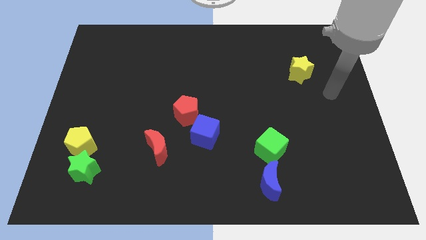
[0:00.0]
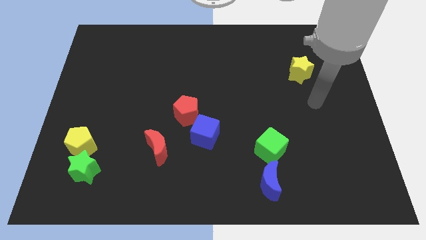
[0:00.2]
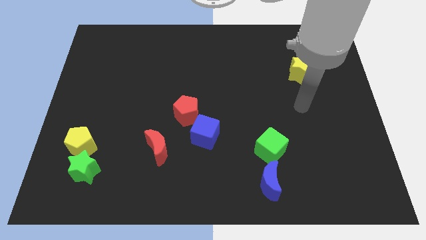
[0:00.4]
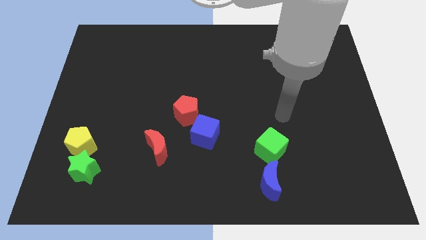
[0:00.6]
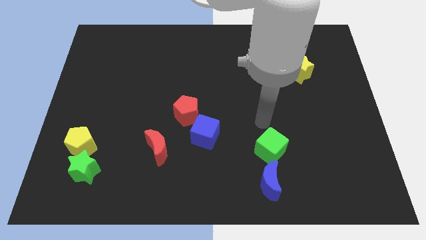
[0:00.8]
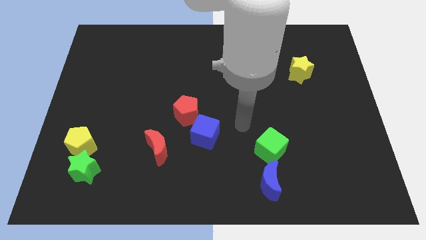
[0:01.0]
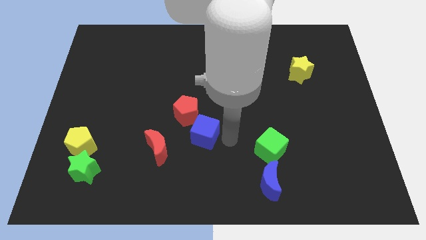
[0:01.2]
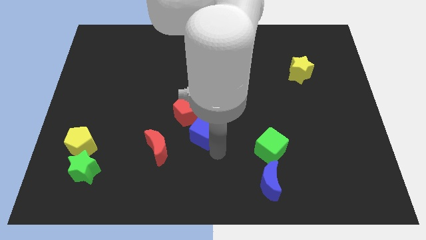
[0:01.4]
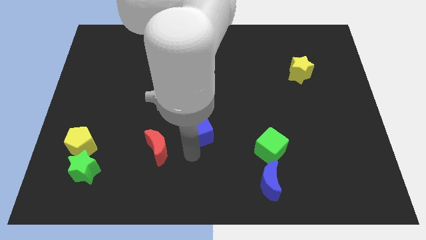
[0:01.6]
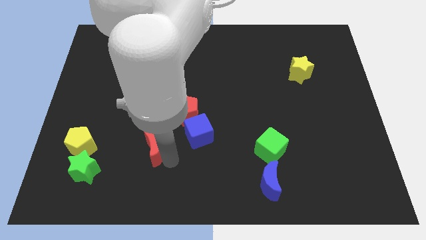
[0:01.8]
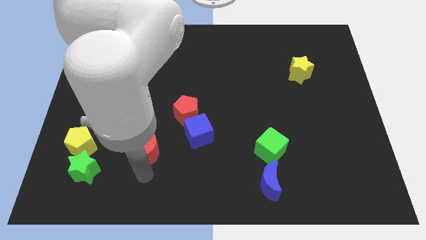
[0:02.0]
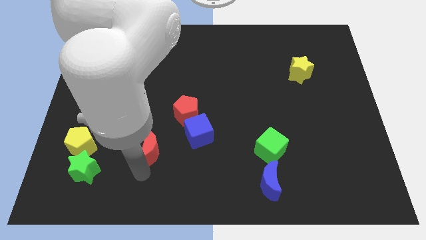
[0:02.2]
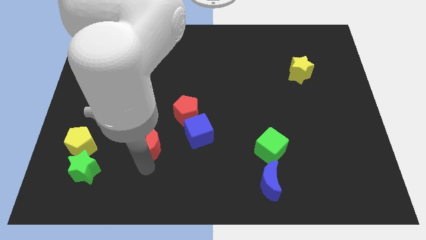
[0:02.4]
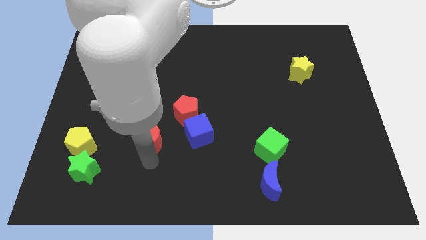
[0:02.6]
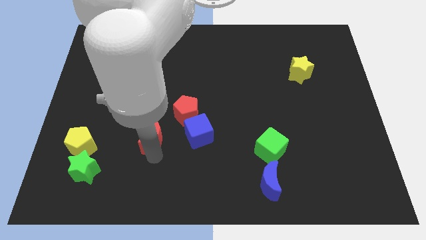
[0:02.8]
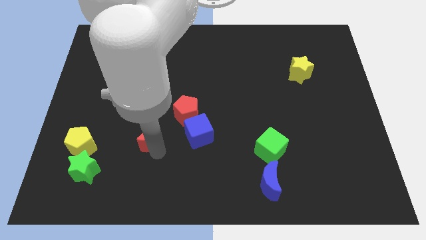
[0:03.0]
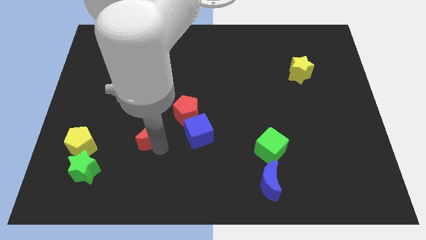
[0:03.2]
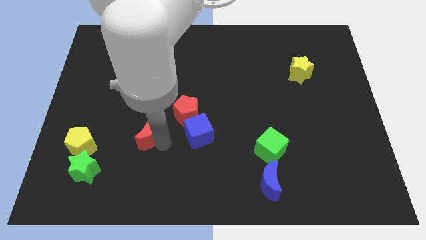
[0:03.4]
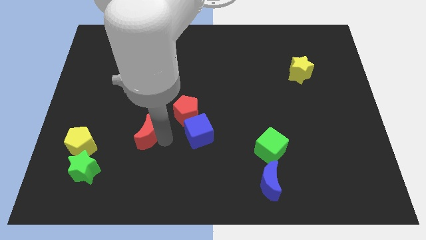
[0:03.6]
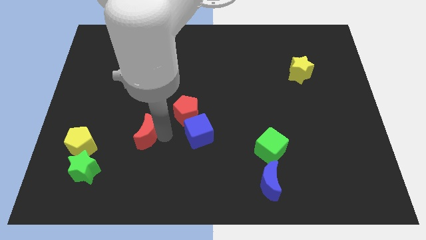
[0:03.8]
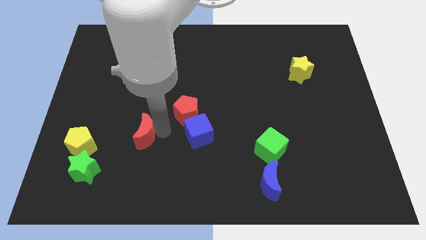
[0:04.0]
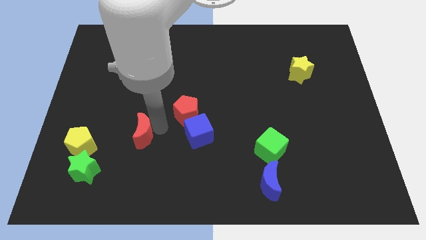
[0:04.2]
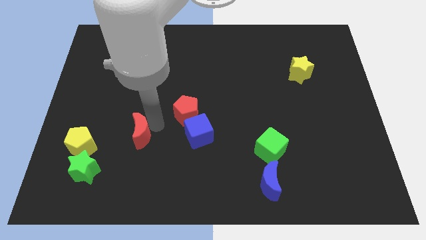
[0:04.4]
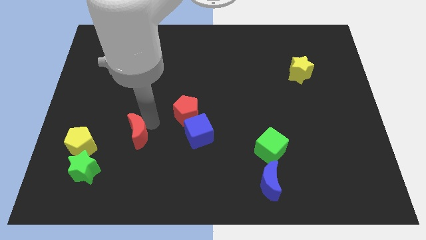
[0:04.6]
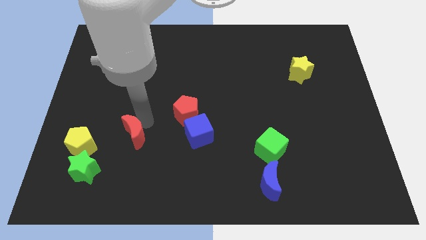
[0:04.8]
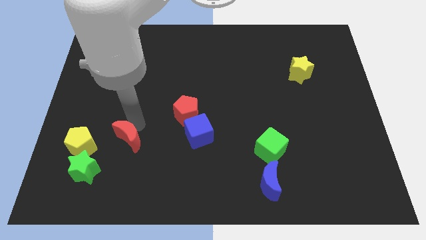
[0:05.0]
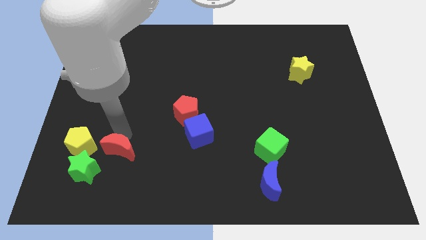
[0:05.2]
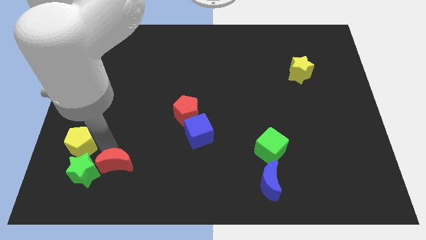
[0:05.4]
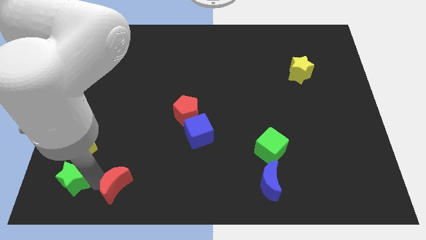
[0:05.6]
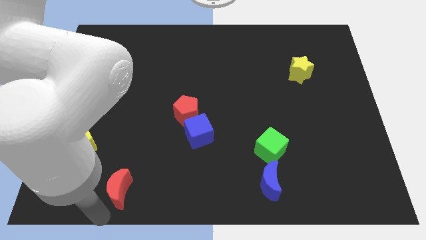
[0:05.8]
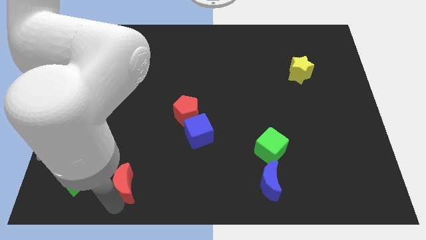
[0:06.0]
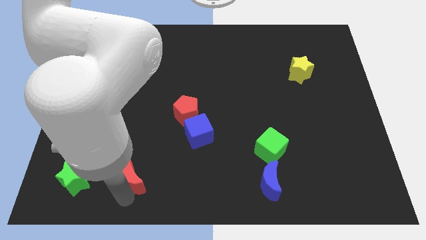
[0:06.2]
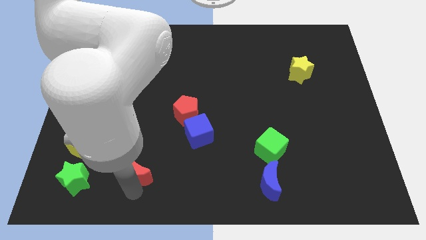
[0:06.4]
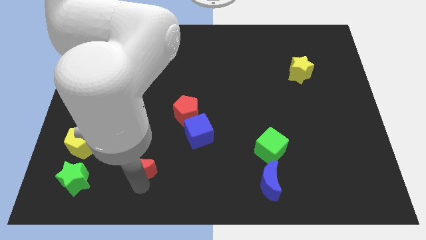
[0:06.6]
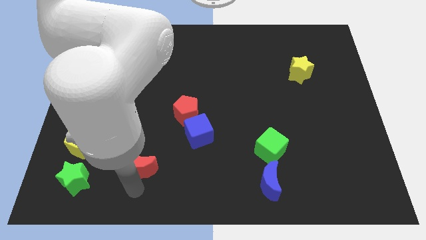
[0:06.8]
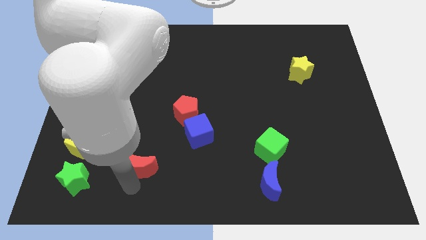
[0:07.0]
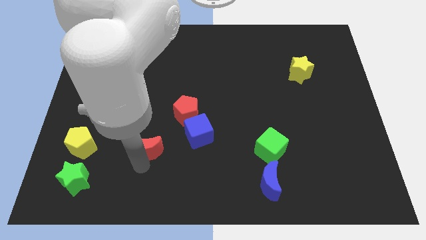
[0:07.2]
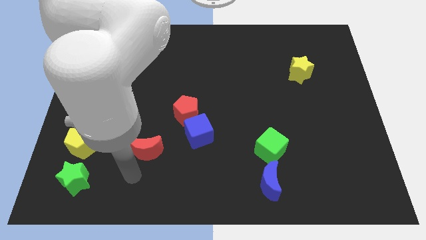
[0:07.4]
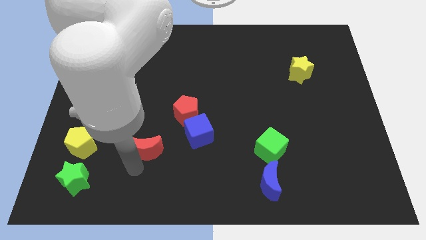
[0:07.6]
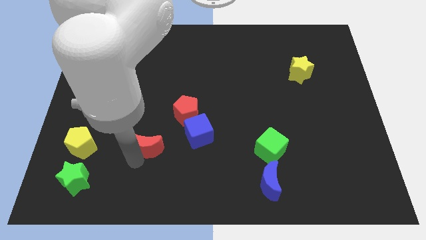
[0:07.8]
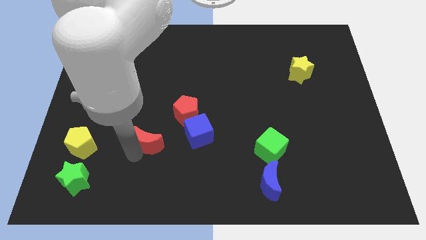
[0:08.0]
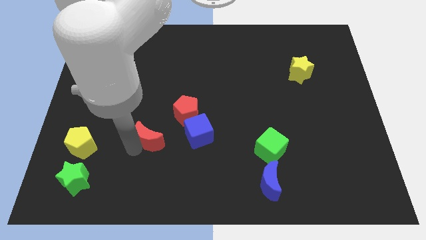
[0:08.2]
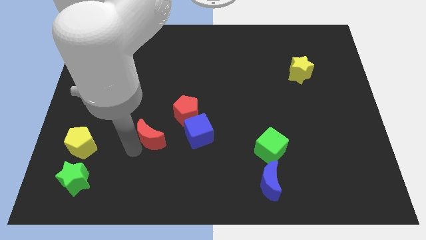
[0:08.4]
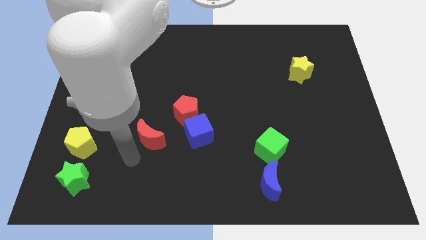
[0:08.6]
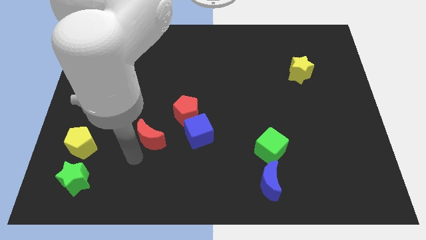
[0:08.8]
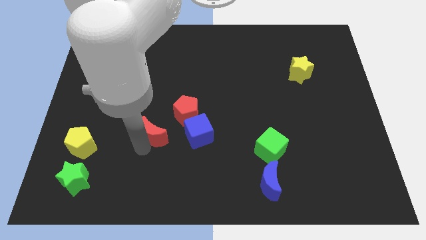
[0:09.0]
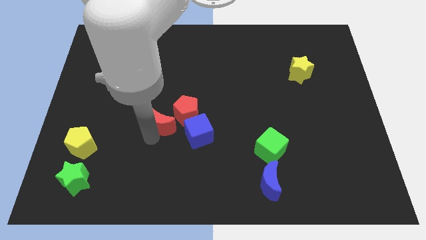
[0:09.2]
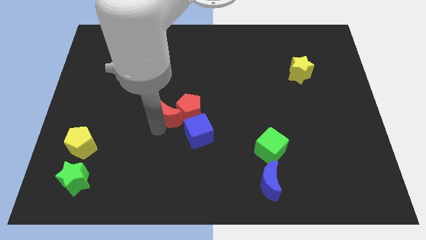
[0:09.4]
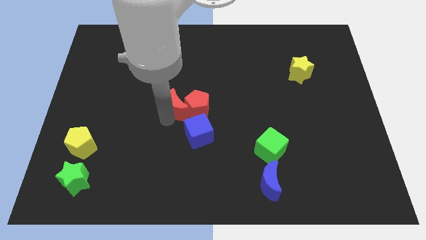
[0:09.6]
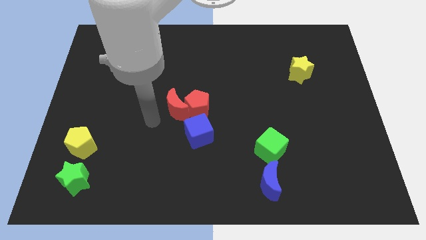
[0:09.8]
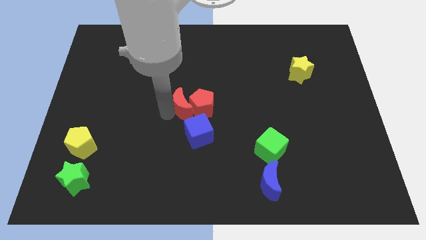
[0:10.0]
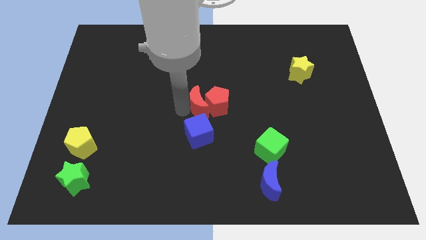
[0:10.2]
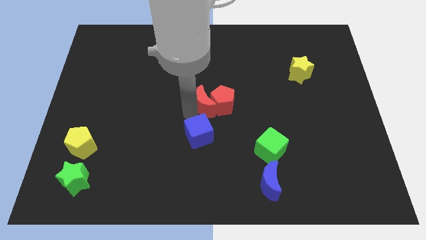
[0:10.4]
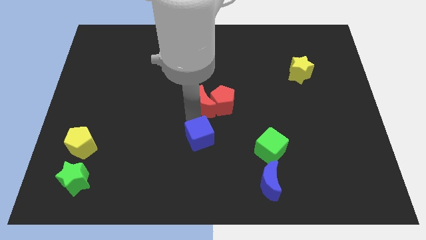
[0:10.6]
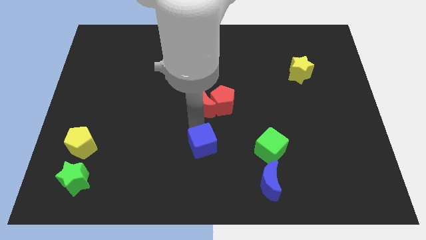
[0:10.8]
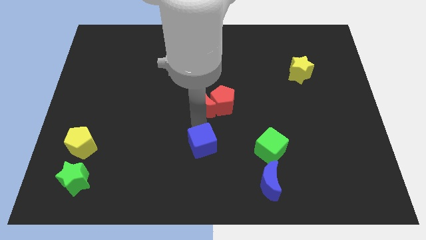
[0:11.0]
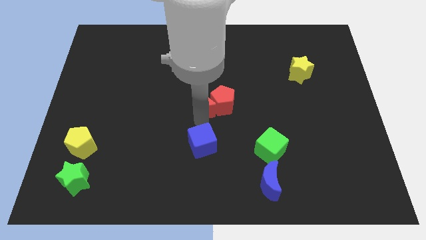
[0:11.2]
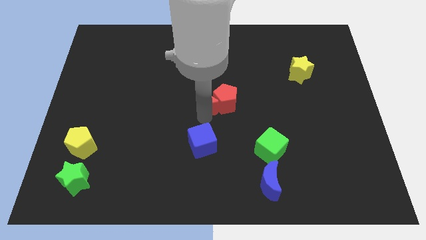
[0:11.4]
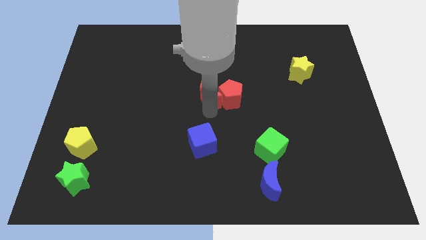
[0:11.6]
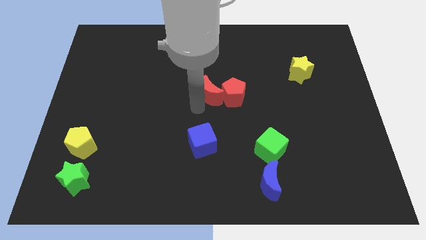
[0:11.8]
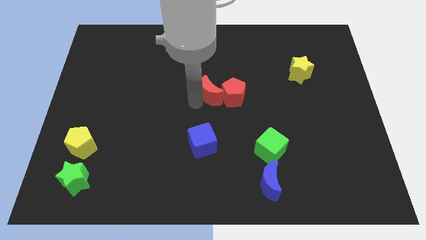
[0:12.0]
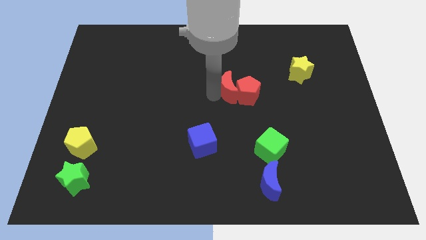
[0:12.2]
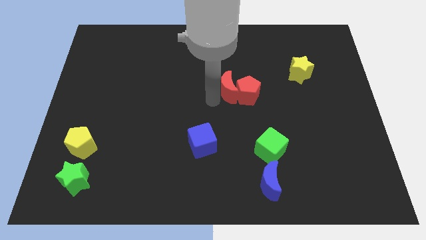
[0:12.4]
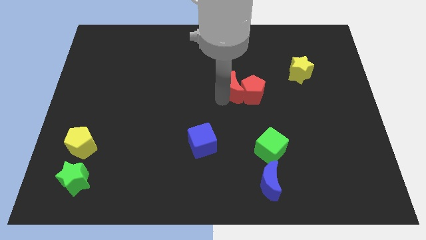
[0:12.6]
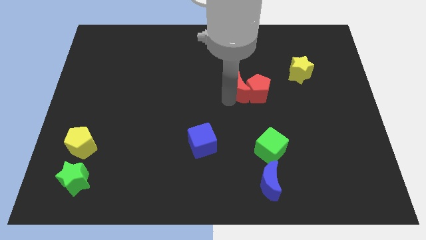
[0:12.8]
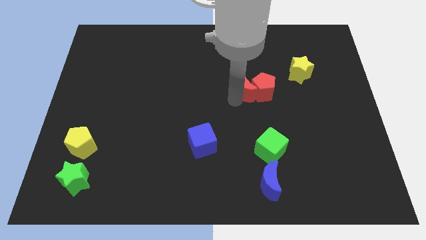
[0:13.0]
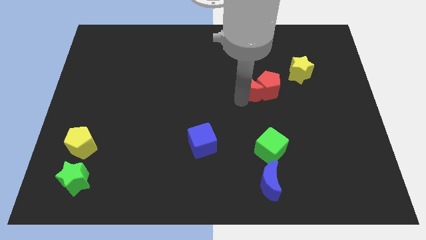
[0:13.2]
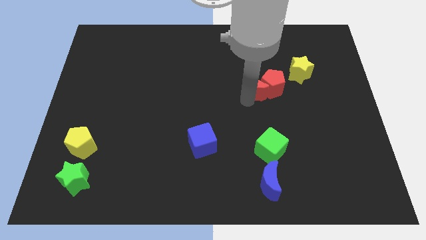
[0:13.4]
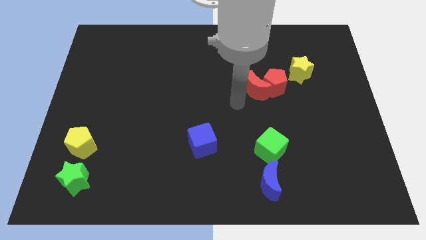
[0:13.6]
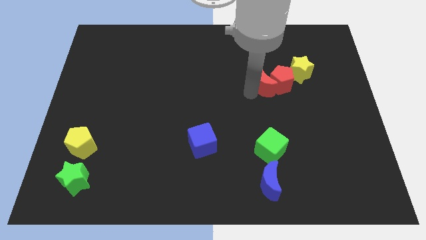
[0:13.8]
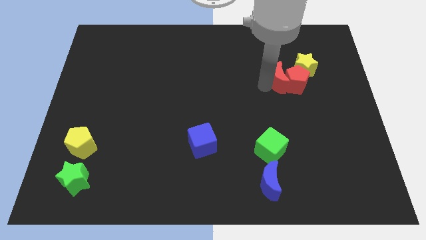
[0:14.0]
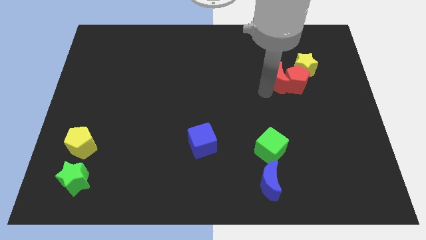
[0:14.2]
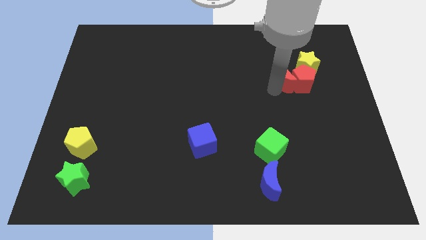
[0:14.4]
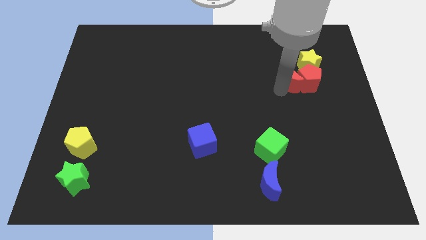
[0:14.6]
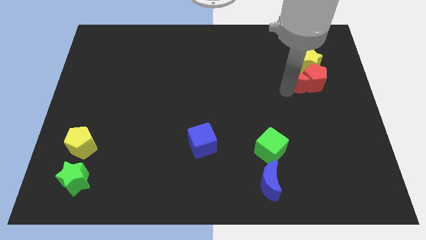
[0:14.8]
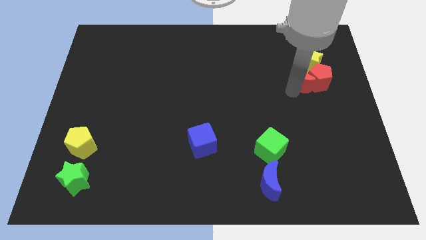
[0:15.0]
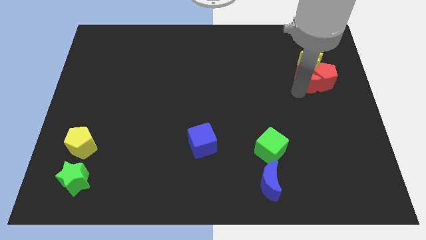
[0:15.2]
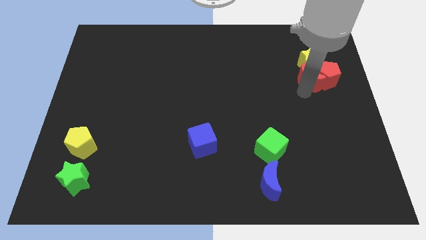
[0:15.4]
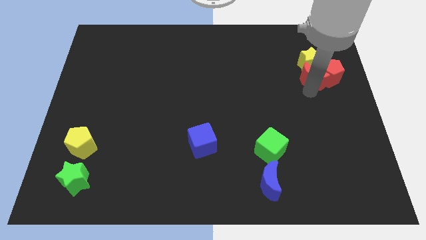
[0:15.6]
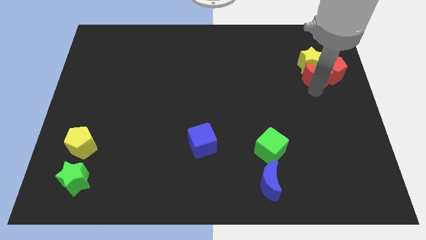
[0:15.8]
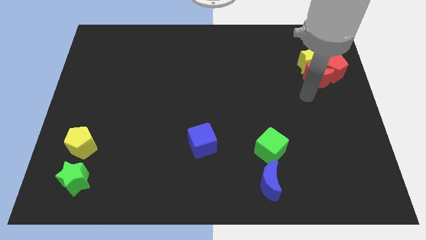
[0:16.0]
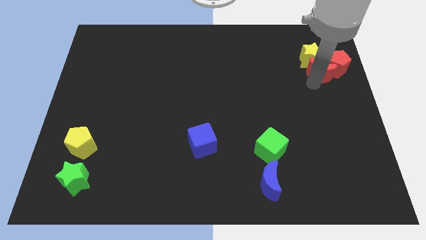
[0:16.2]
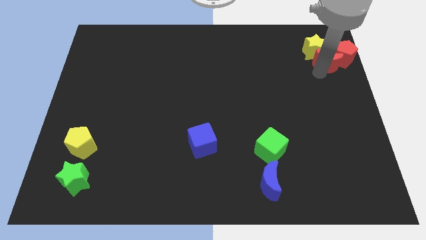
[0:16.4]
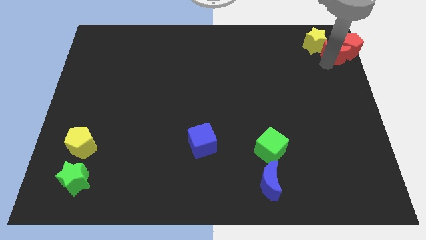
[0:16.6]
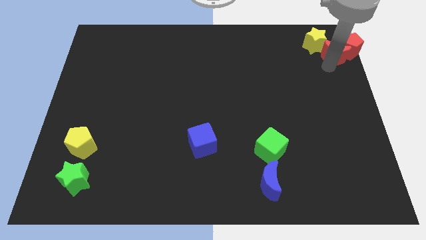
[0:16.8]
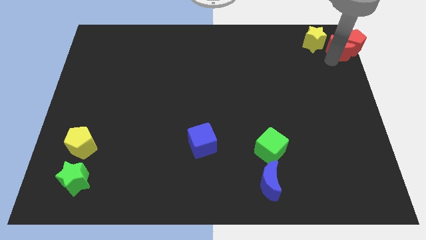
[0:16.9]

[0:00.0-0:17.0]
push the red moon to the upper right corner
